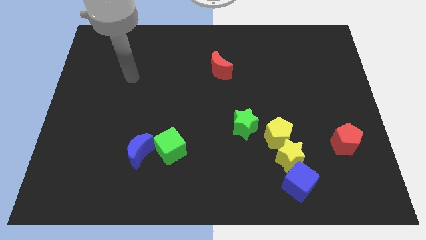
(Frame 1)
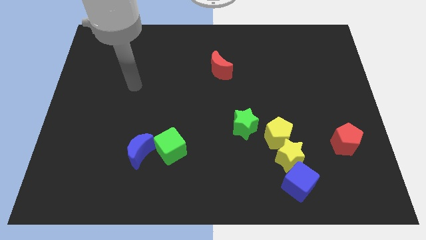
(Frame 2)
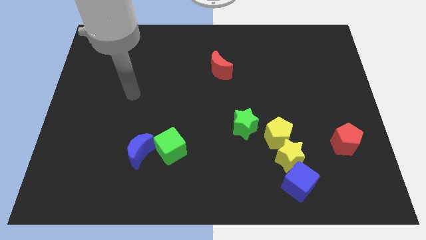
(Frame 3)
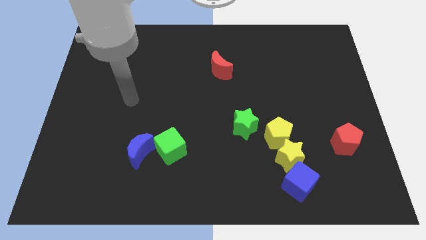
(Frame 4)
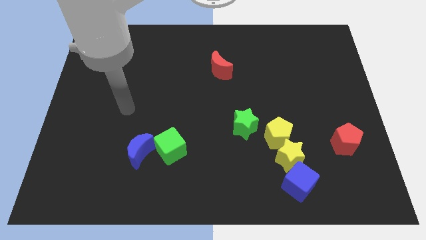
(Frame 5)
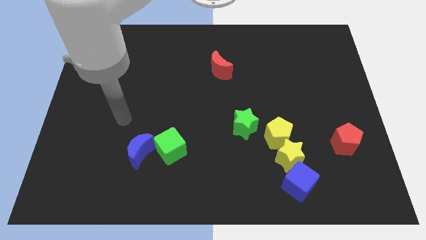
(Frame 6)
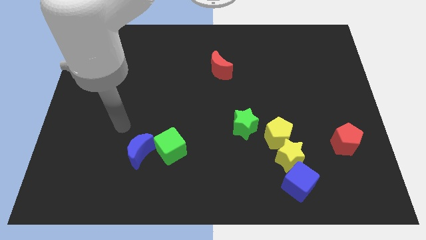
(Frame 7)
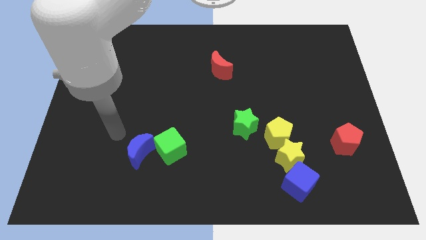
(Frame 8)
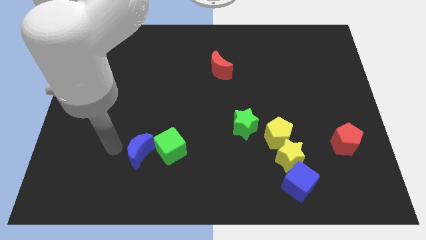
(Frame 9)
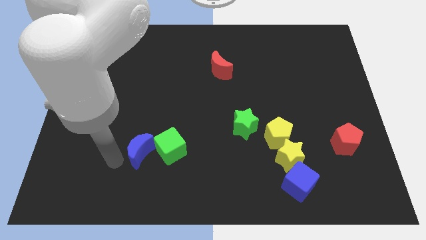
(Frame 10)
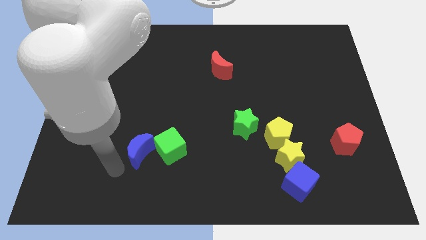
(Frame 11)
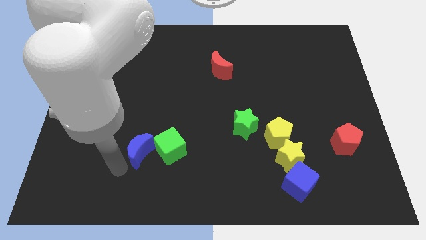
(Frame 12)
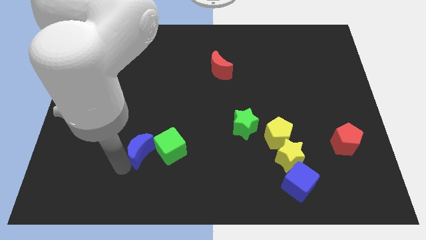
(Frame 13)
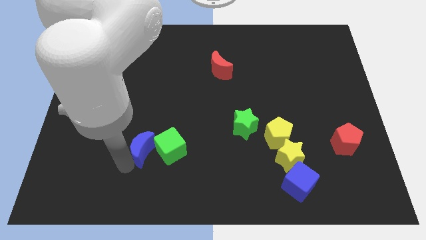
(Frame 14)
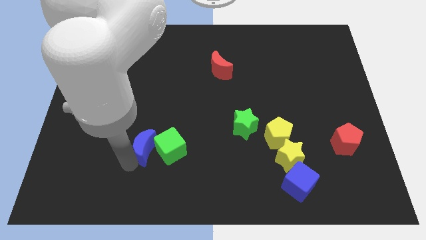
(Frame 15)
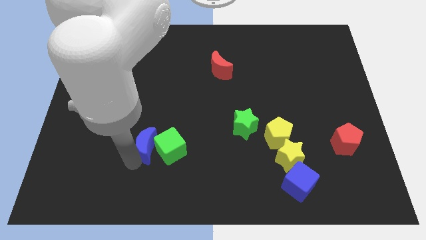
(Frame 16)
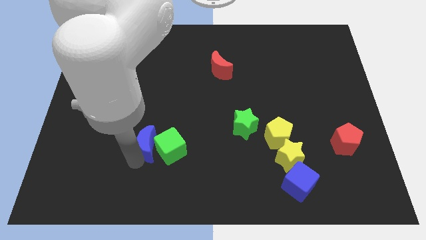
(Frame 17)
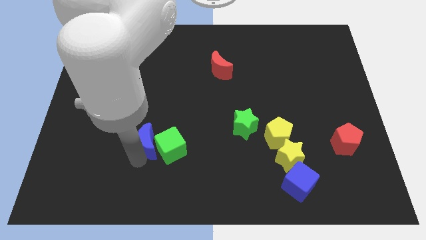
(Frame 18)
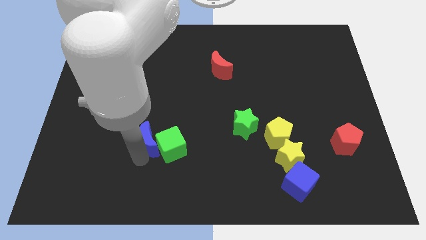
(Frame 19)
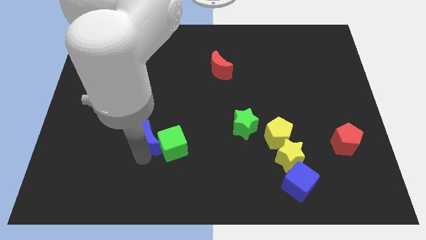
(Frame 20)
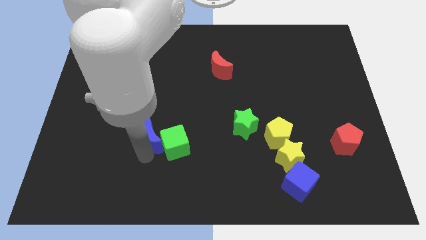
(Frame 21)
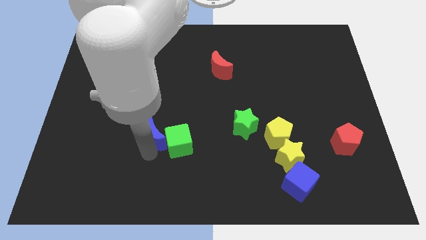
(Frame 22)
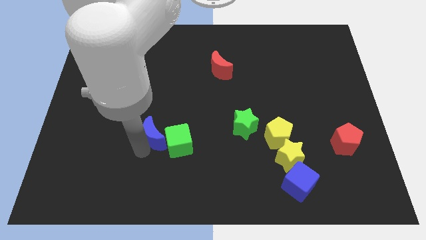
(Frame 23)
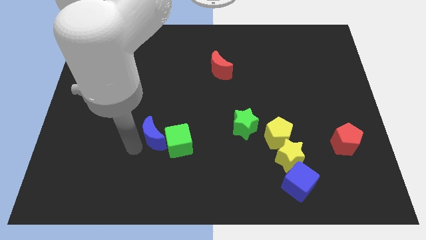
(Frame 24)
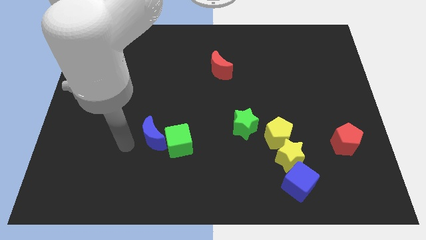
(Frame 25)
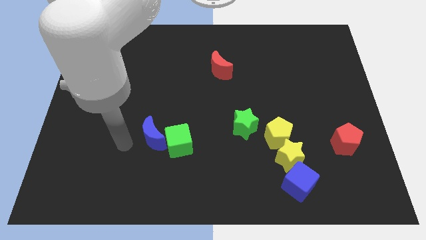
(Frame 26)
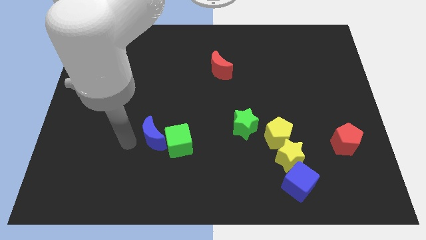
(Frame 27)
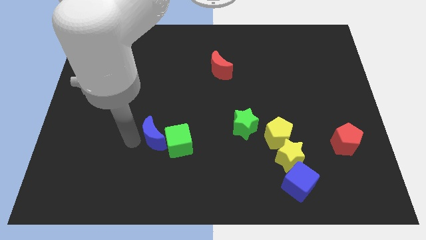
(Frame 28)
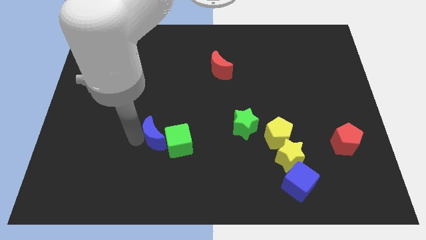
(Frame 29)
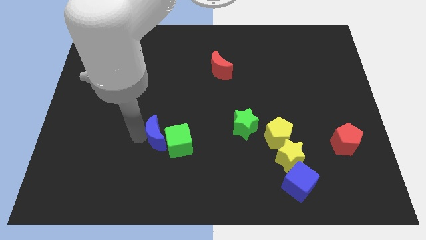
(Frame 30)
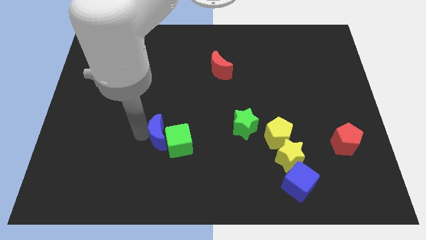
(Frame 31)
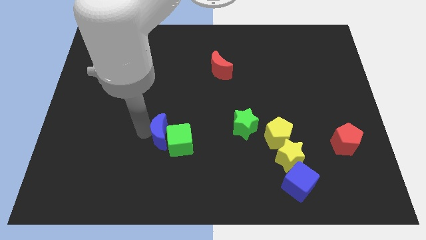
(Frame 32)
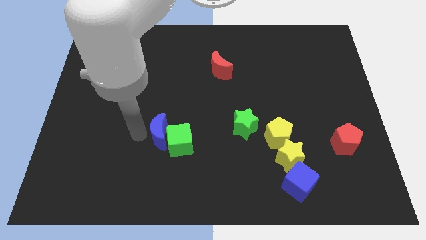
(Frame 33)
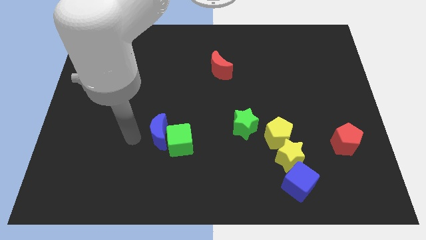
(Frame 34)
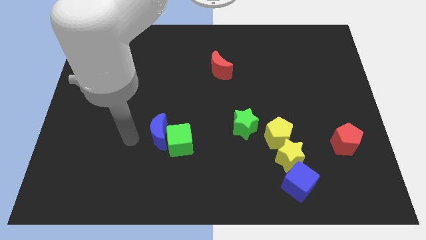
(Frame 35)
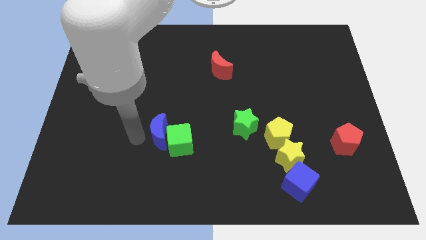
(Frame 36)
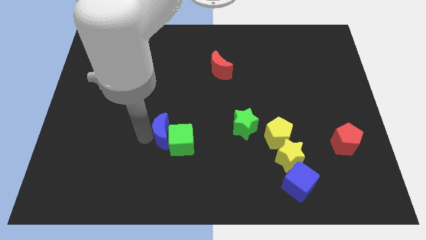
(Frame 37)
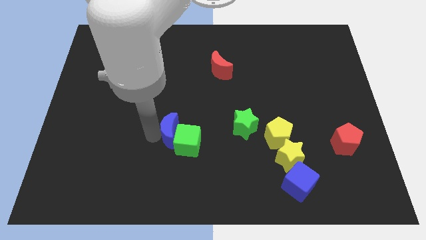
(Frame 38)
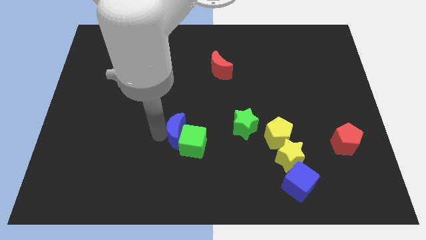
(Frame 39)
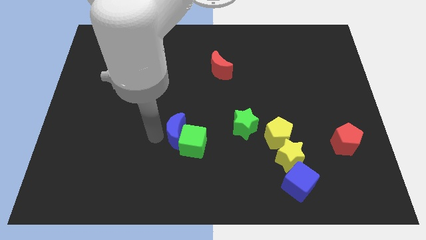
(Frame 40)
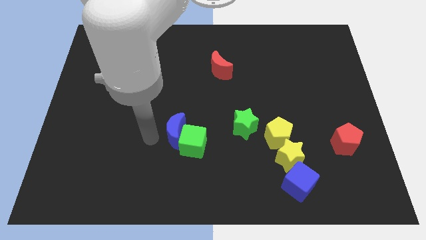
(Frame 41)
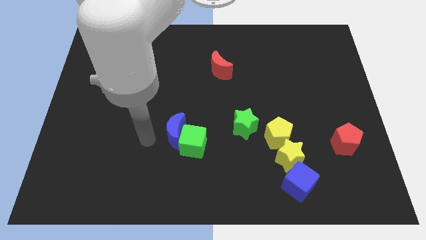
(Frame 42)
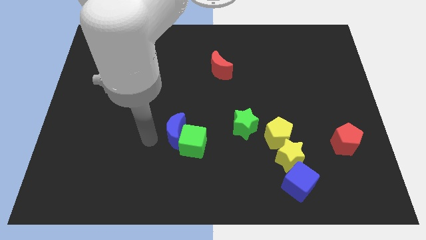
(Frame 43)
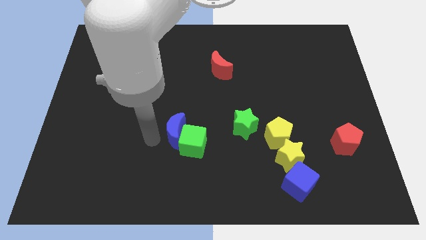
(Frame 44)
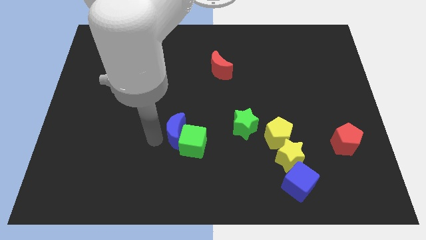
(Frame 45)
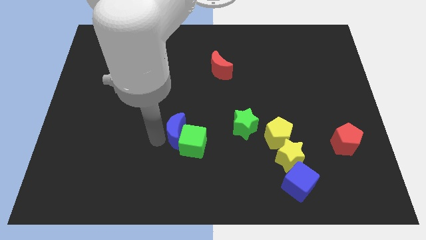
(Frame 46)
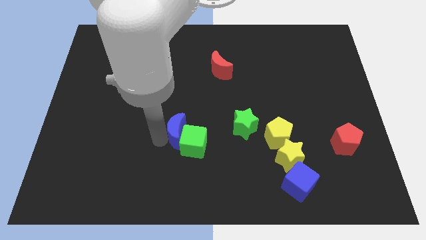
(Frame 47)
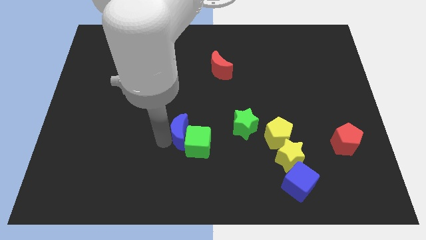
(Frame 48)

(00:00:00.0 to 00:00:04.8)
slightly move the blue moon to the right

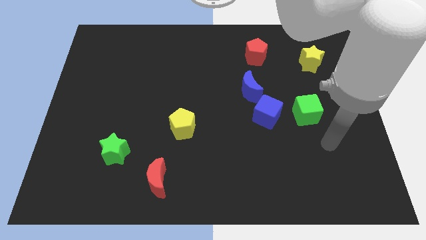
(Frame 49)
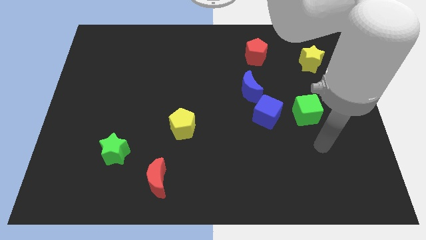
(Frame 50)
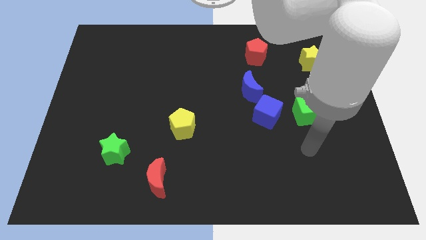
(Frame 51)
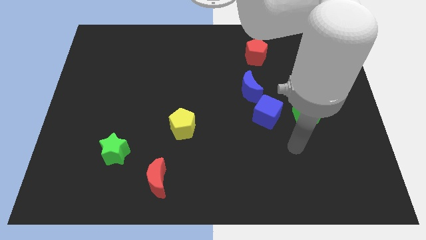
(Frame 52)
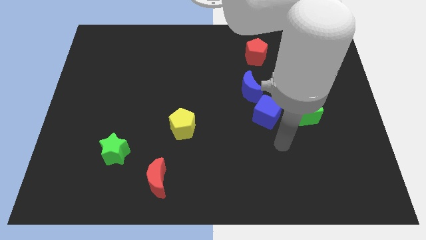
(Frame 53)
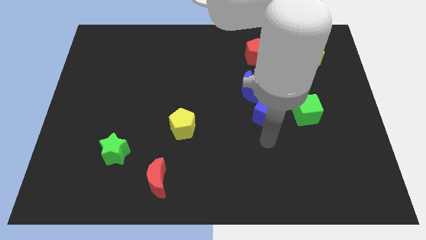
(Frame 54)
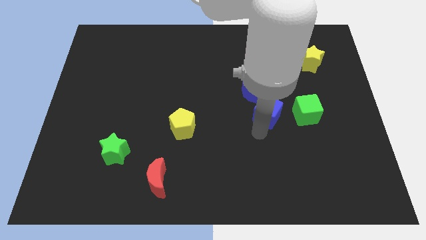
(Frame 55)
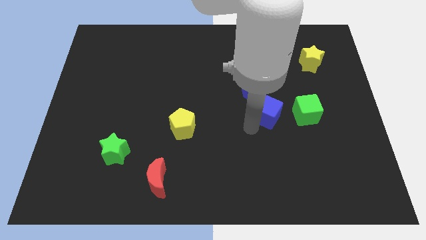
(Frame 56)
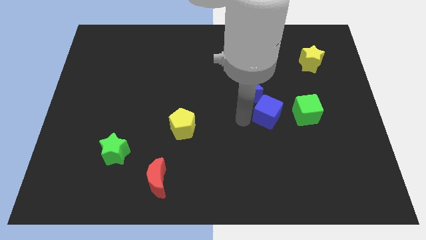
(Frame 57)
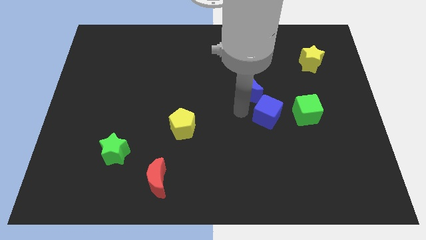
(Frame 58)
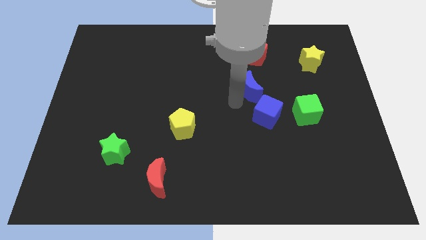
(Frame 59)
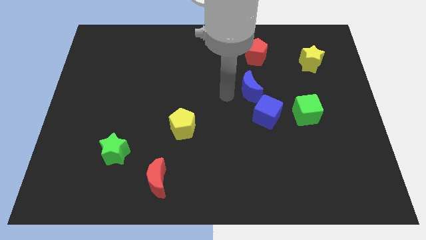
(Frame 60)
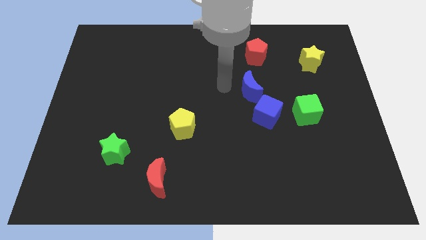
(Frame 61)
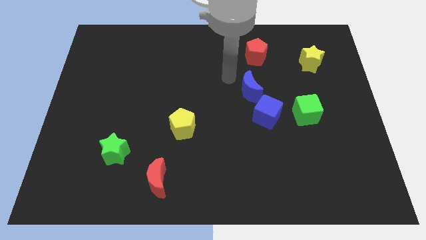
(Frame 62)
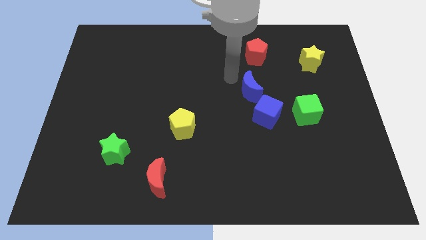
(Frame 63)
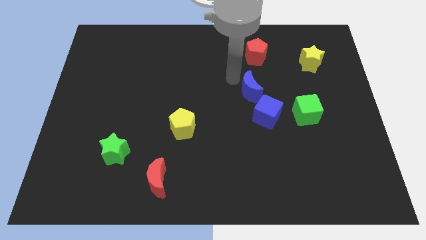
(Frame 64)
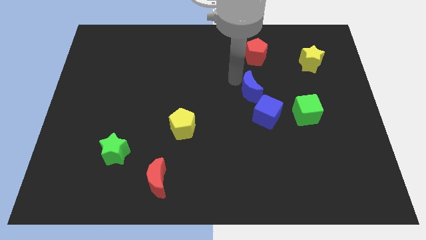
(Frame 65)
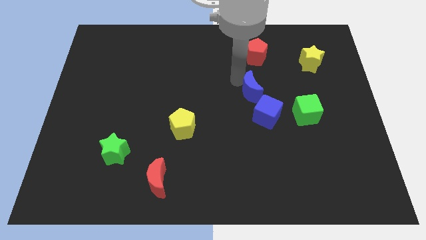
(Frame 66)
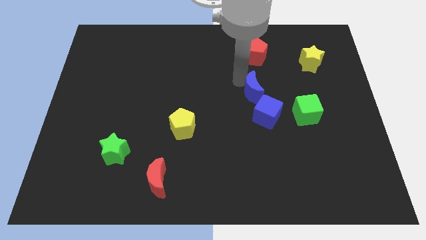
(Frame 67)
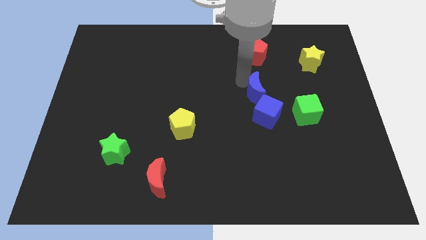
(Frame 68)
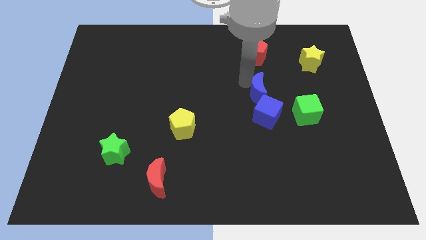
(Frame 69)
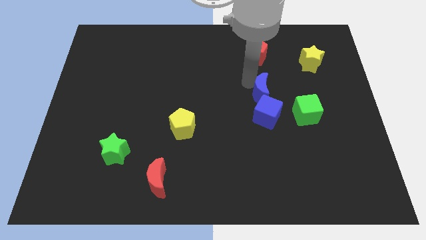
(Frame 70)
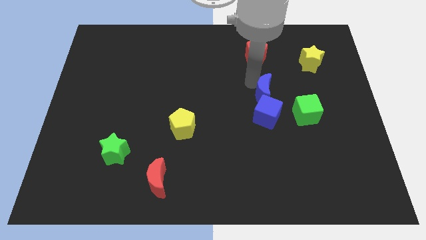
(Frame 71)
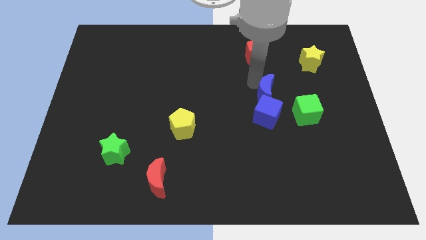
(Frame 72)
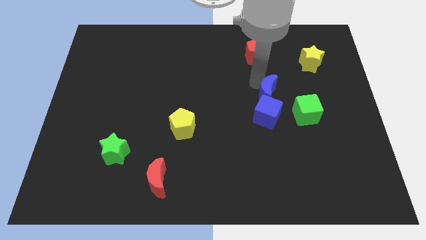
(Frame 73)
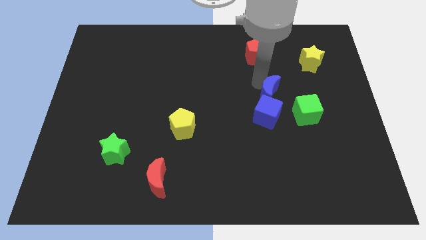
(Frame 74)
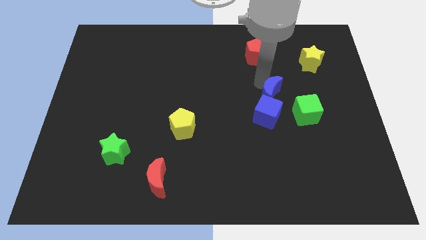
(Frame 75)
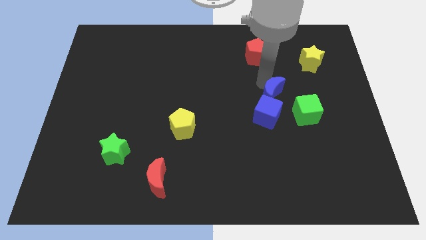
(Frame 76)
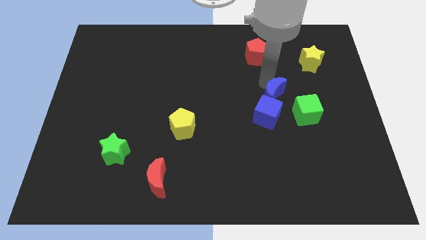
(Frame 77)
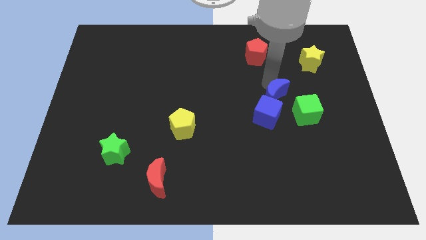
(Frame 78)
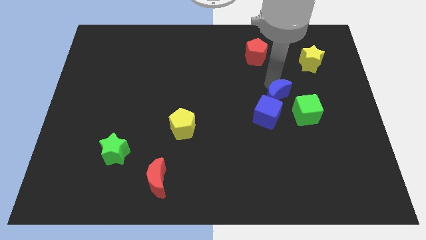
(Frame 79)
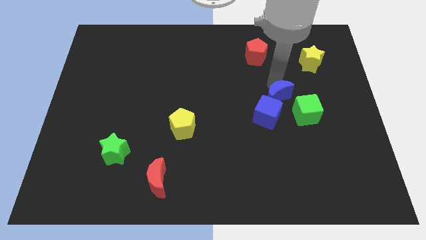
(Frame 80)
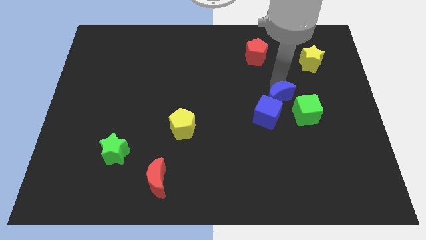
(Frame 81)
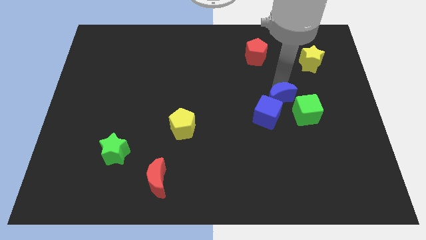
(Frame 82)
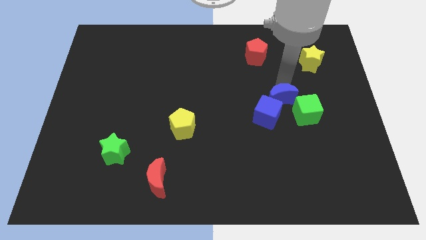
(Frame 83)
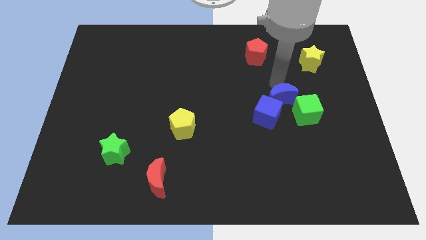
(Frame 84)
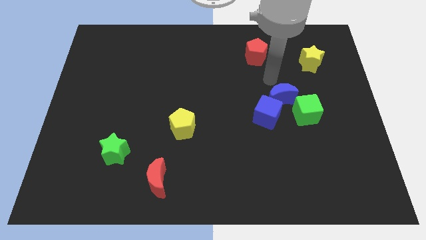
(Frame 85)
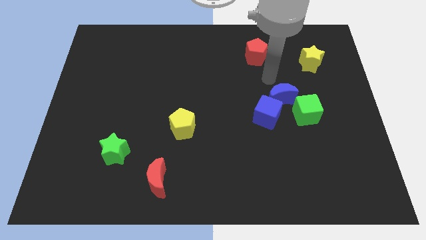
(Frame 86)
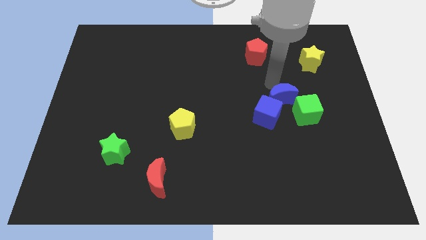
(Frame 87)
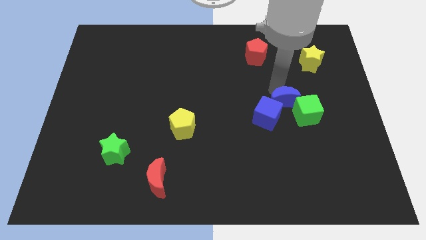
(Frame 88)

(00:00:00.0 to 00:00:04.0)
slide the blue moon a little downwards and then right
